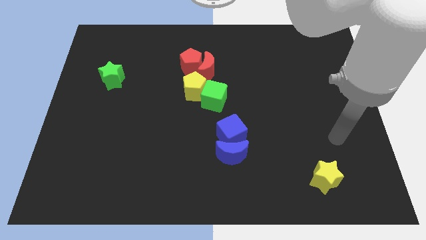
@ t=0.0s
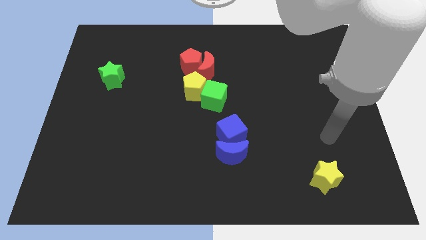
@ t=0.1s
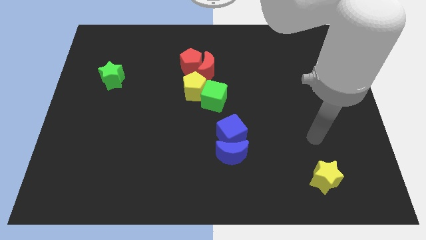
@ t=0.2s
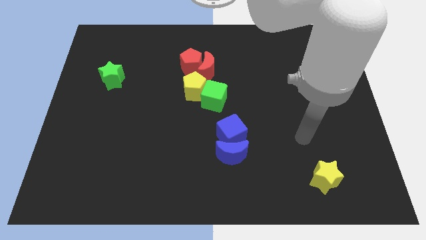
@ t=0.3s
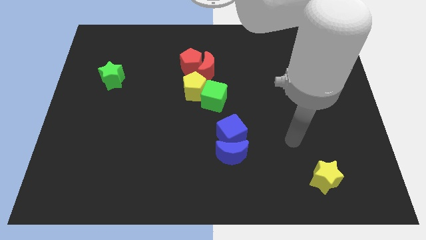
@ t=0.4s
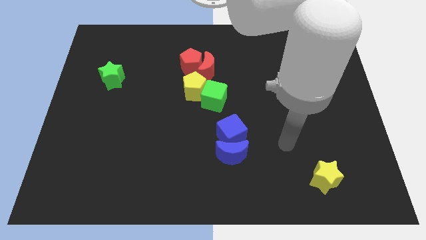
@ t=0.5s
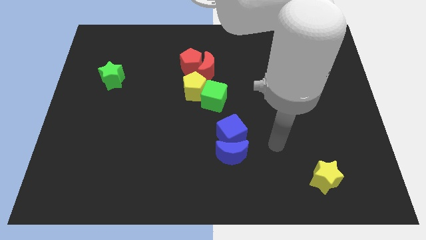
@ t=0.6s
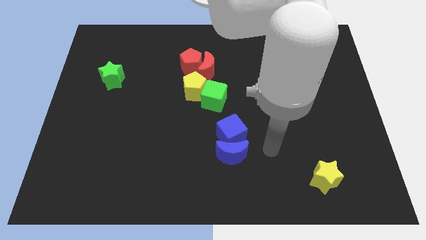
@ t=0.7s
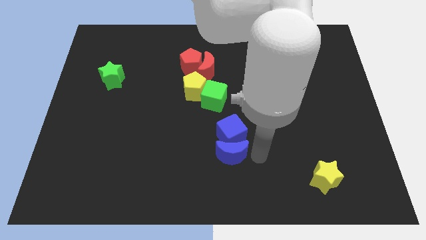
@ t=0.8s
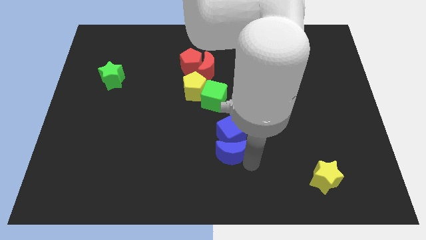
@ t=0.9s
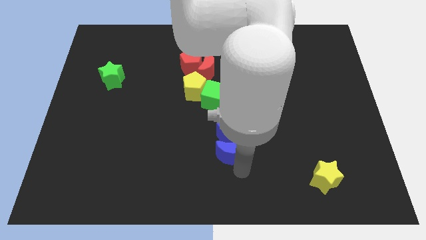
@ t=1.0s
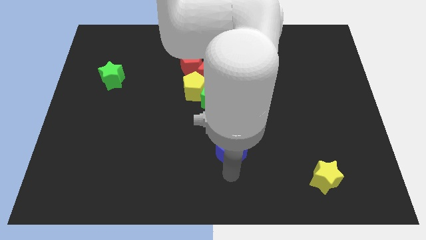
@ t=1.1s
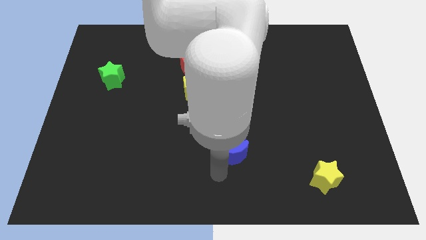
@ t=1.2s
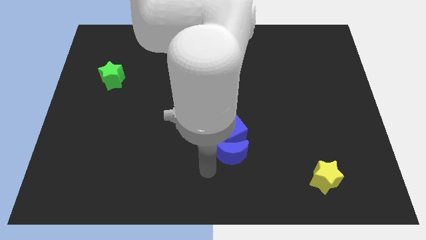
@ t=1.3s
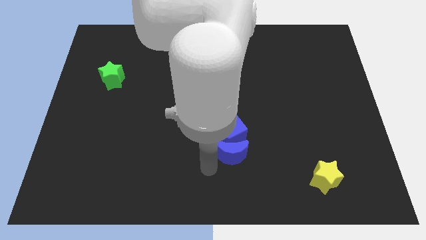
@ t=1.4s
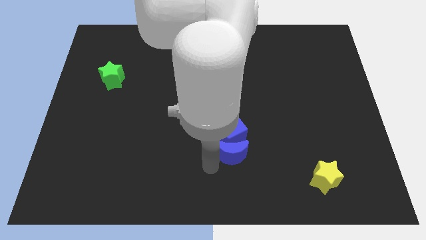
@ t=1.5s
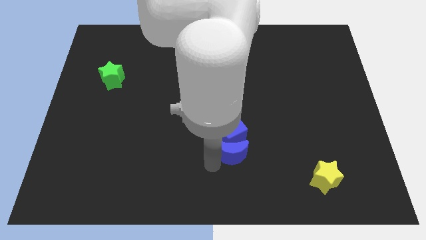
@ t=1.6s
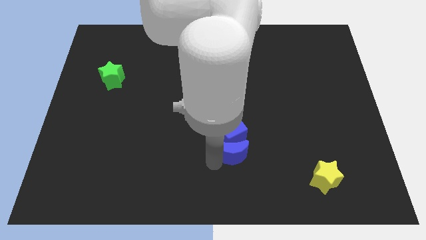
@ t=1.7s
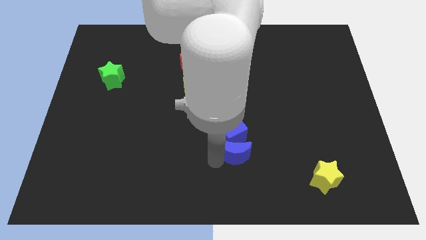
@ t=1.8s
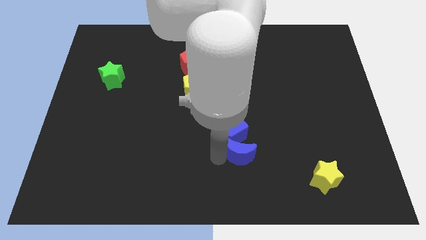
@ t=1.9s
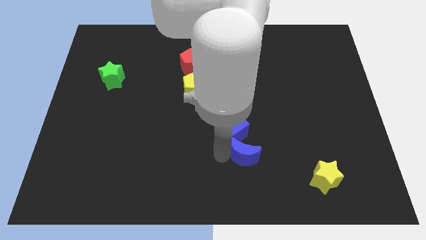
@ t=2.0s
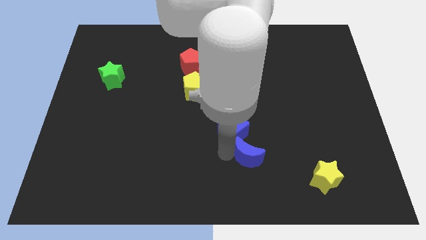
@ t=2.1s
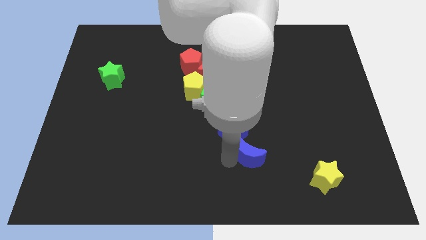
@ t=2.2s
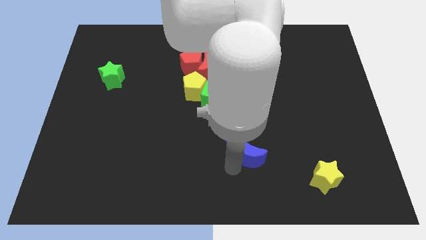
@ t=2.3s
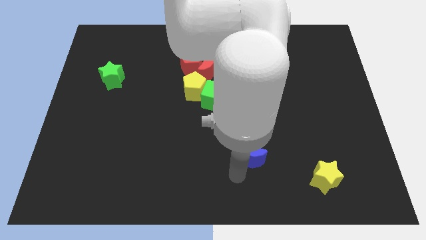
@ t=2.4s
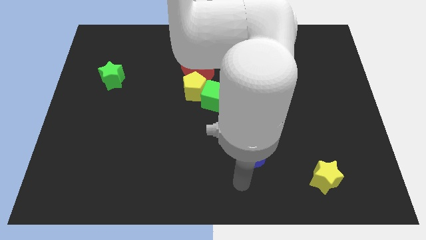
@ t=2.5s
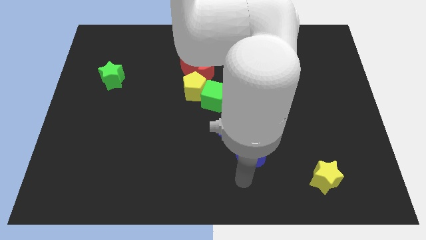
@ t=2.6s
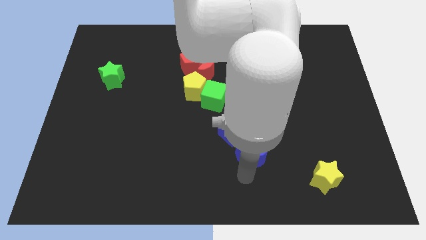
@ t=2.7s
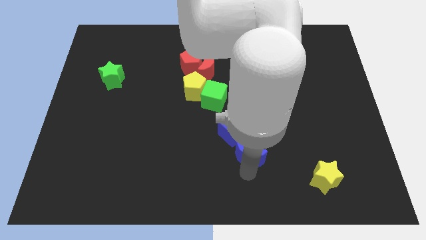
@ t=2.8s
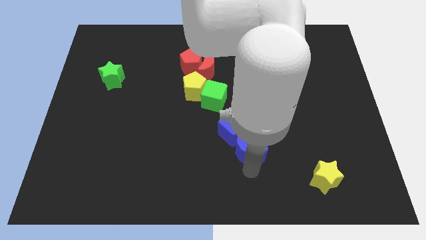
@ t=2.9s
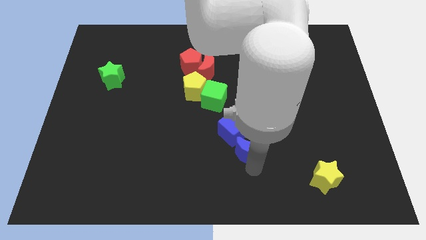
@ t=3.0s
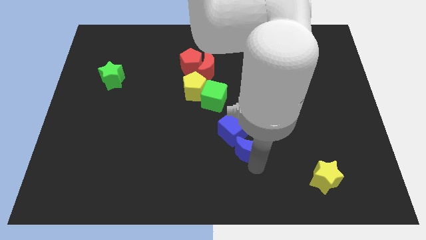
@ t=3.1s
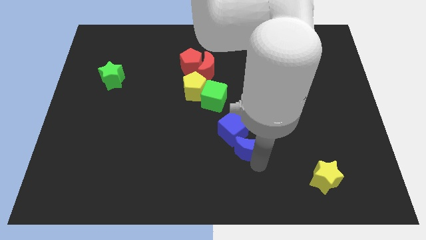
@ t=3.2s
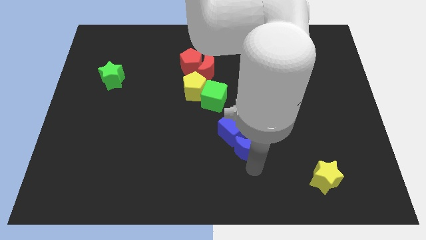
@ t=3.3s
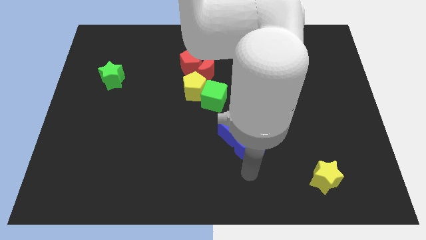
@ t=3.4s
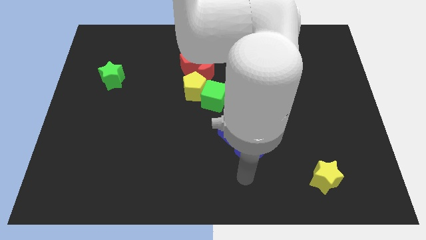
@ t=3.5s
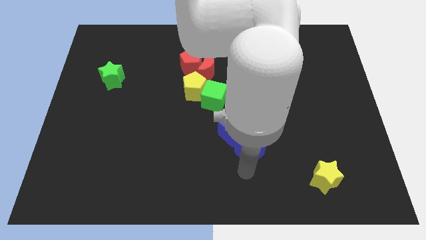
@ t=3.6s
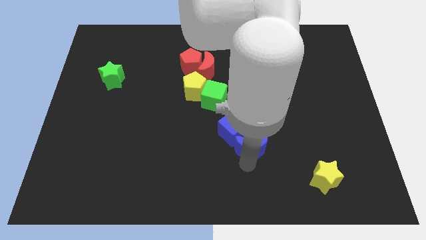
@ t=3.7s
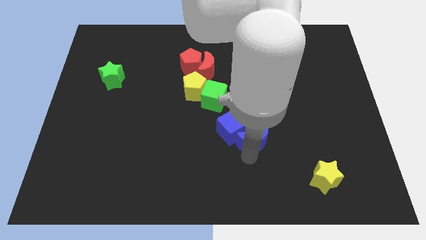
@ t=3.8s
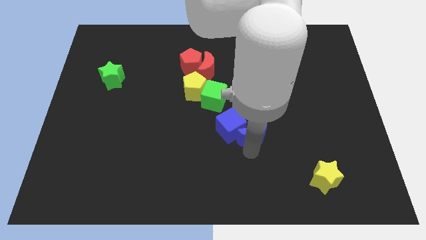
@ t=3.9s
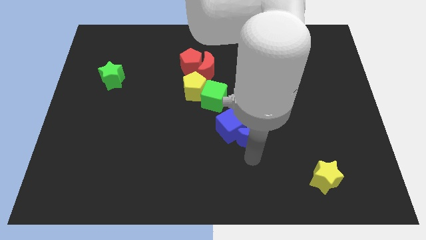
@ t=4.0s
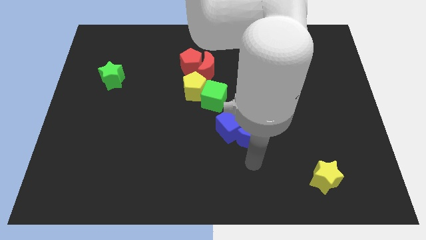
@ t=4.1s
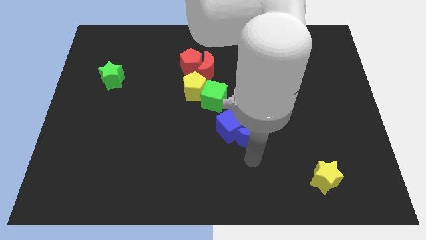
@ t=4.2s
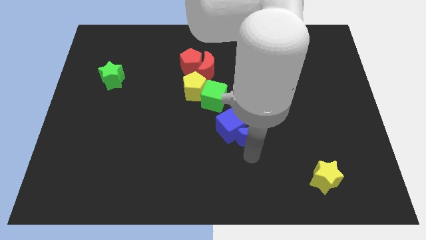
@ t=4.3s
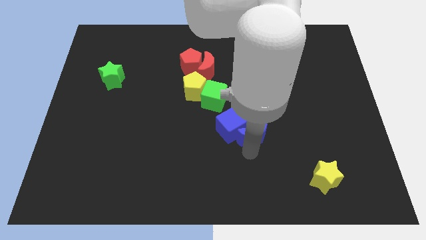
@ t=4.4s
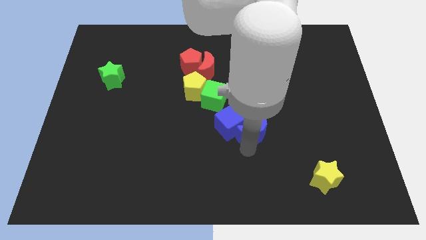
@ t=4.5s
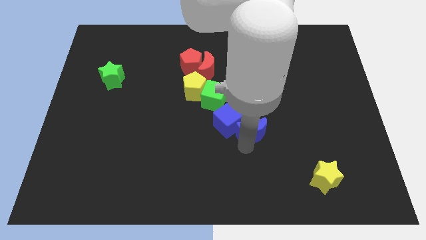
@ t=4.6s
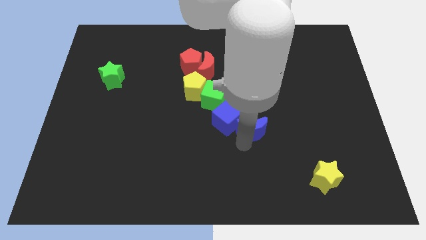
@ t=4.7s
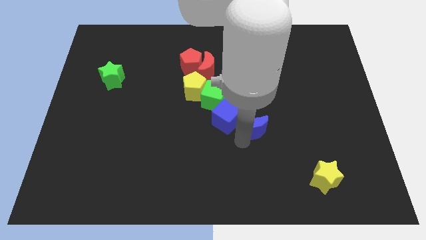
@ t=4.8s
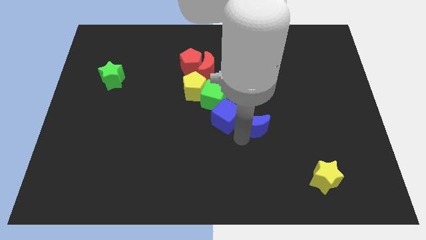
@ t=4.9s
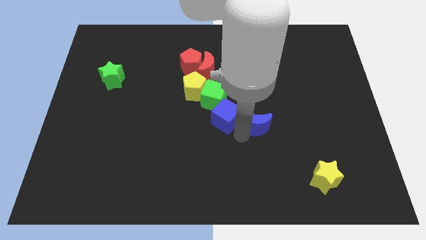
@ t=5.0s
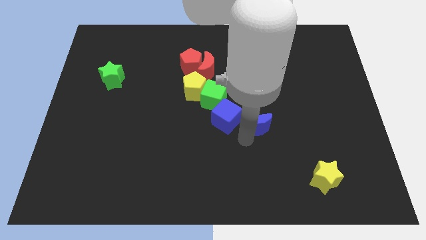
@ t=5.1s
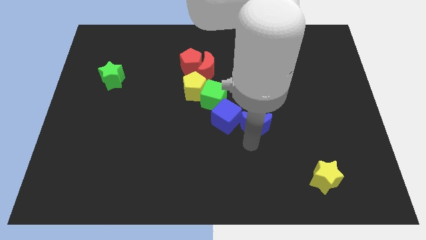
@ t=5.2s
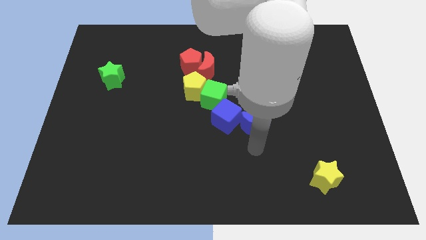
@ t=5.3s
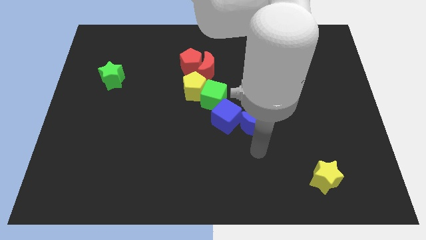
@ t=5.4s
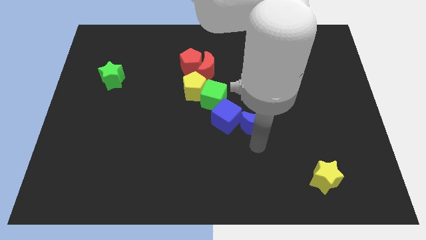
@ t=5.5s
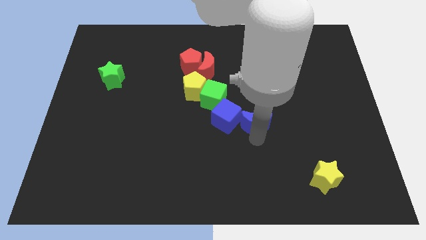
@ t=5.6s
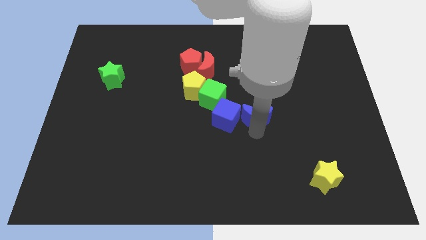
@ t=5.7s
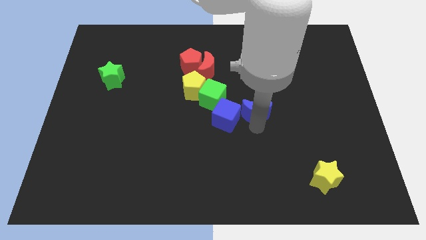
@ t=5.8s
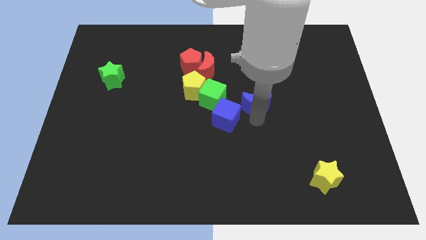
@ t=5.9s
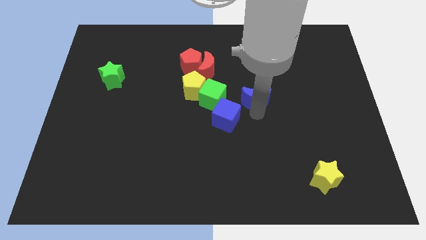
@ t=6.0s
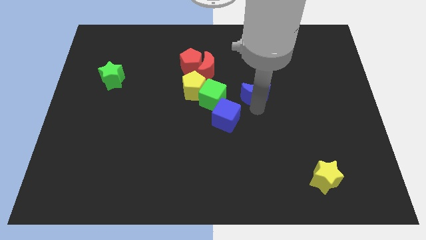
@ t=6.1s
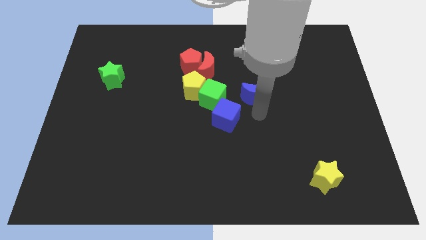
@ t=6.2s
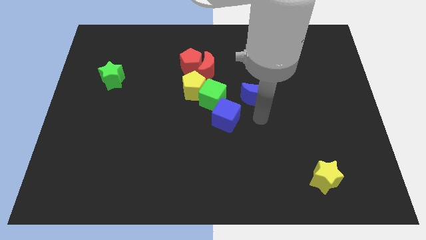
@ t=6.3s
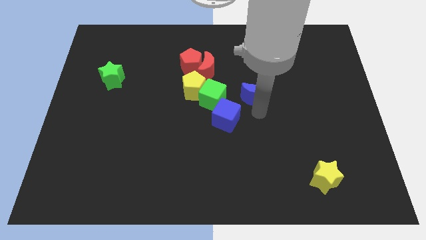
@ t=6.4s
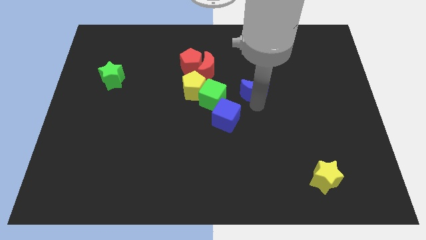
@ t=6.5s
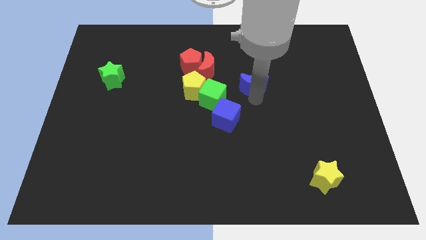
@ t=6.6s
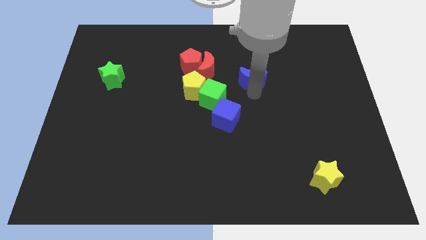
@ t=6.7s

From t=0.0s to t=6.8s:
move the blue moon to the right of the red moon
